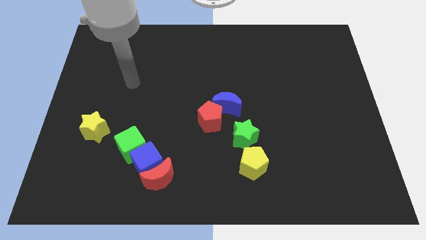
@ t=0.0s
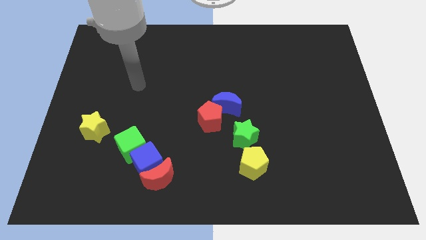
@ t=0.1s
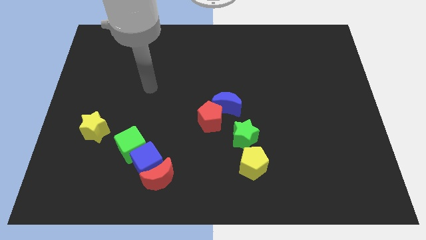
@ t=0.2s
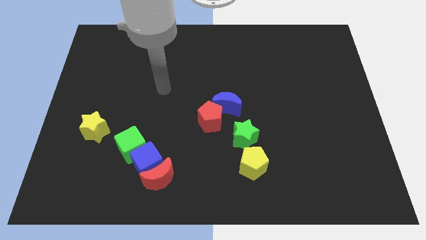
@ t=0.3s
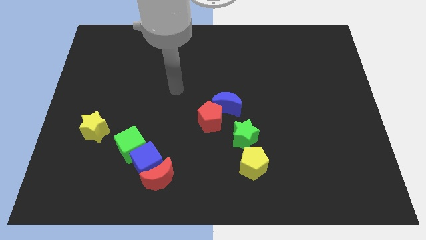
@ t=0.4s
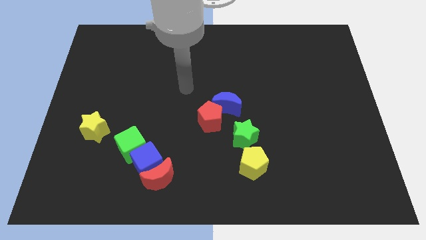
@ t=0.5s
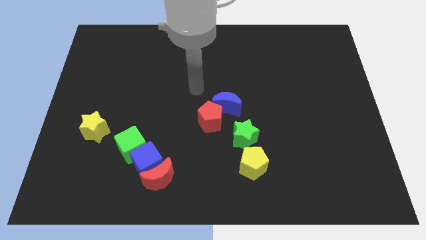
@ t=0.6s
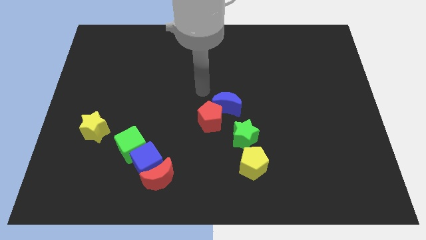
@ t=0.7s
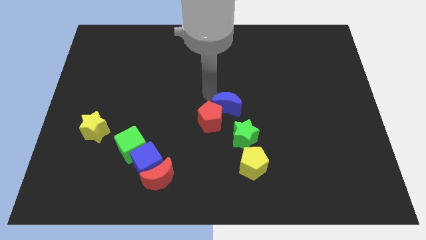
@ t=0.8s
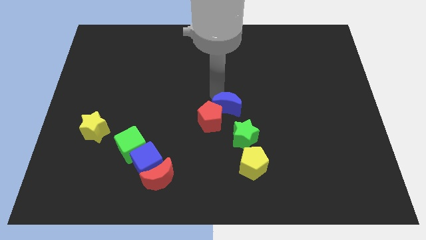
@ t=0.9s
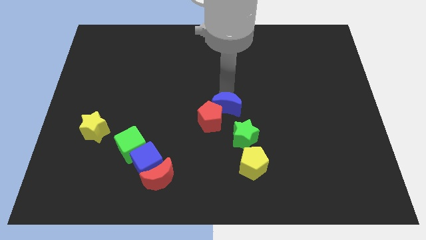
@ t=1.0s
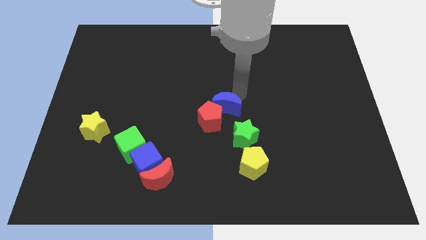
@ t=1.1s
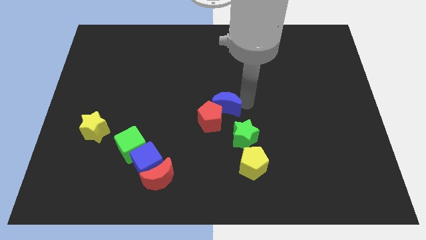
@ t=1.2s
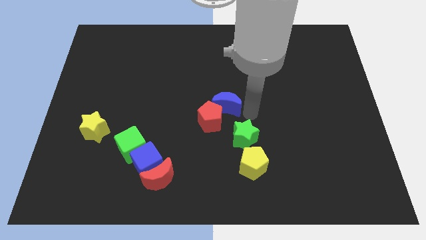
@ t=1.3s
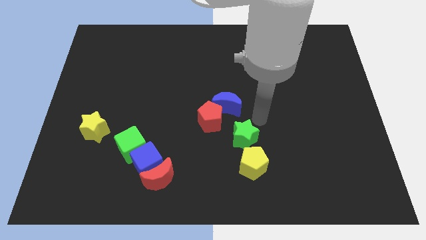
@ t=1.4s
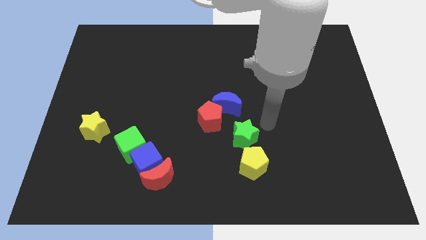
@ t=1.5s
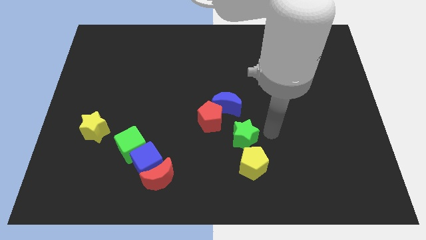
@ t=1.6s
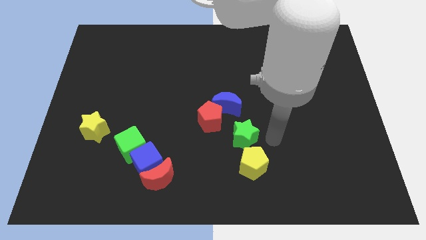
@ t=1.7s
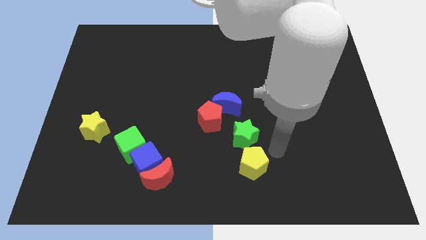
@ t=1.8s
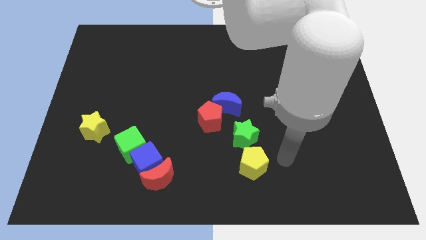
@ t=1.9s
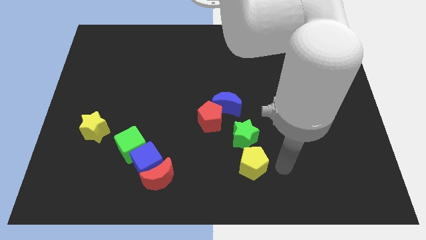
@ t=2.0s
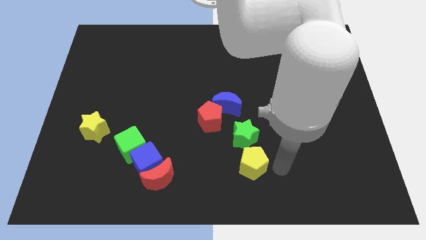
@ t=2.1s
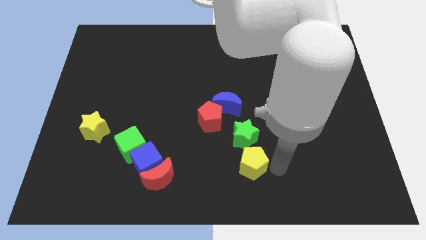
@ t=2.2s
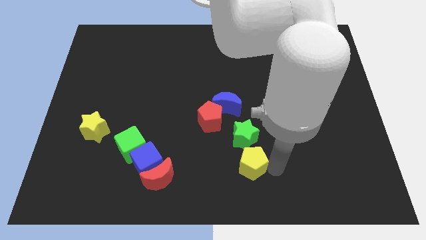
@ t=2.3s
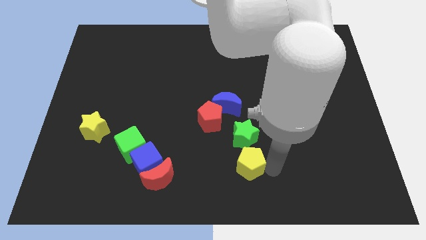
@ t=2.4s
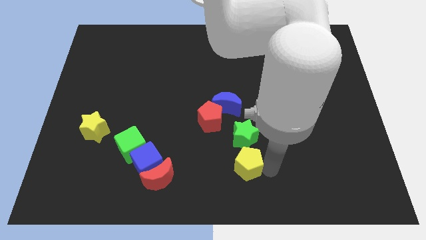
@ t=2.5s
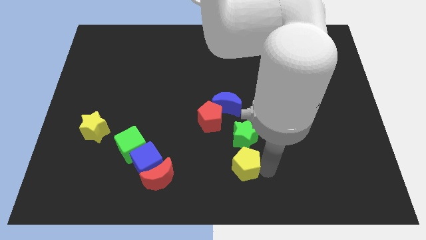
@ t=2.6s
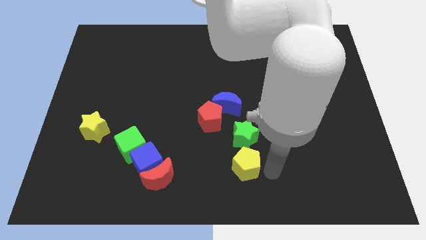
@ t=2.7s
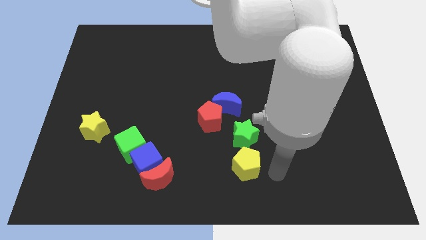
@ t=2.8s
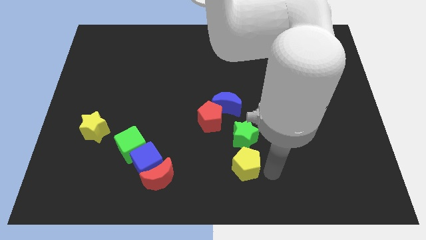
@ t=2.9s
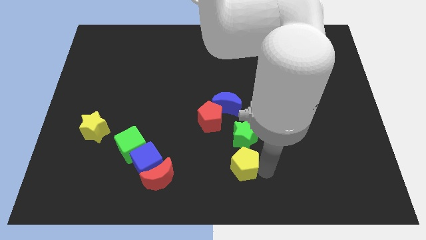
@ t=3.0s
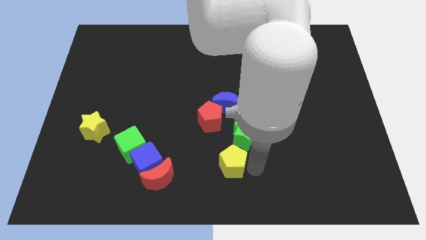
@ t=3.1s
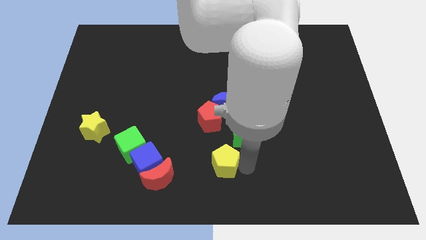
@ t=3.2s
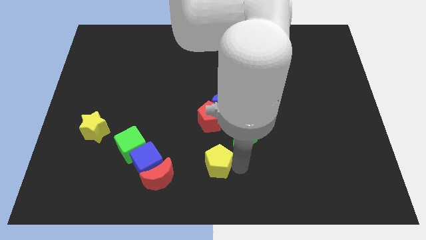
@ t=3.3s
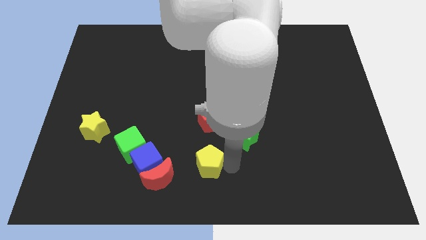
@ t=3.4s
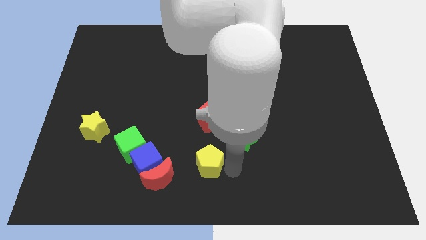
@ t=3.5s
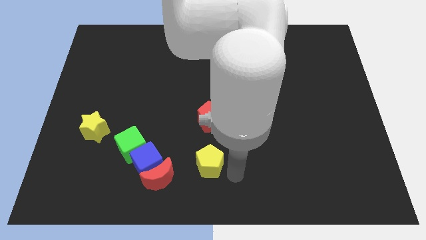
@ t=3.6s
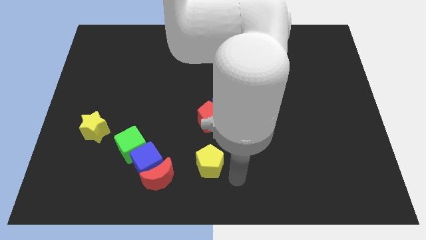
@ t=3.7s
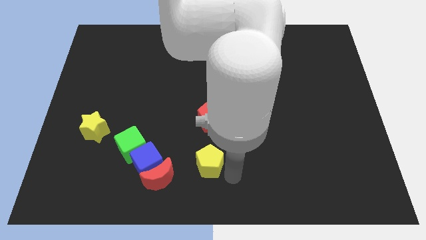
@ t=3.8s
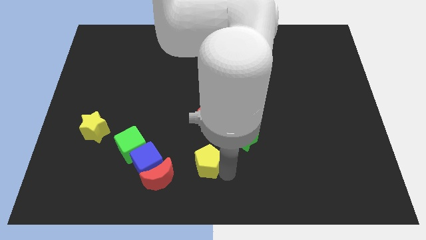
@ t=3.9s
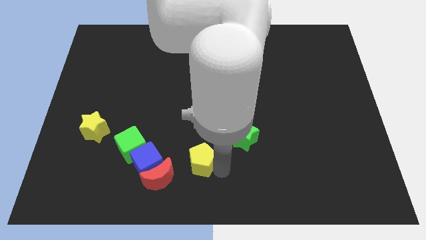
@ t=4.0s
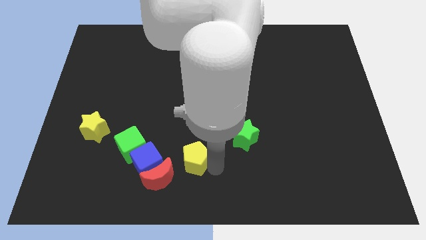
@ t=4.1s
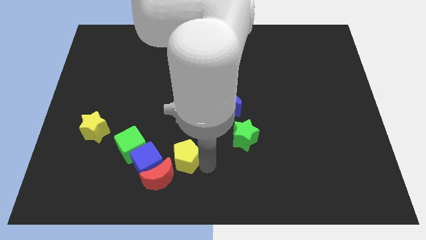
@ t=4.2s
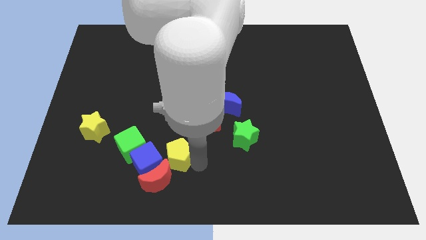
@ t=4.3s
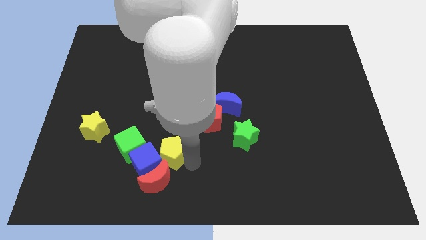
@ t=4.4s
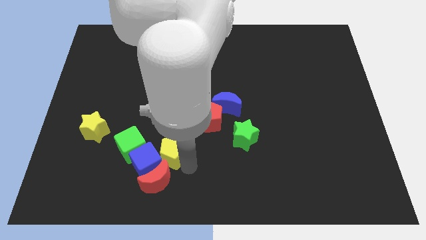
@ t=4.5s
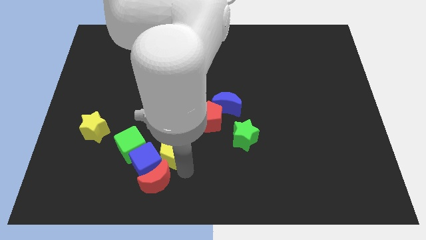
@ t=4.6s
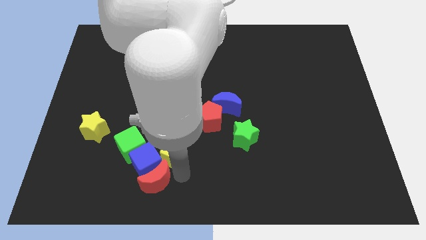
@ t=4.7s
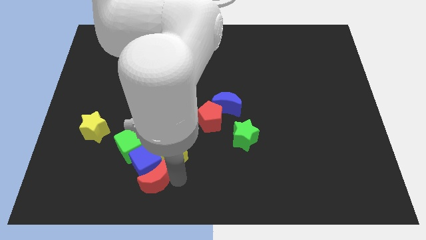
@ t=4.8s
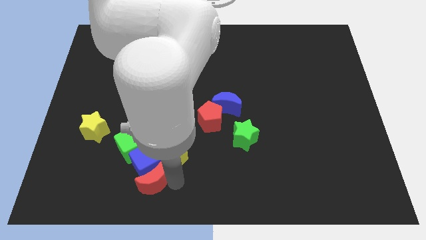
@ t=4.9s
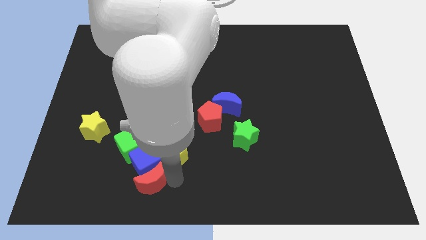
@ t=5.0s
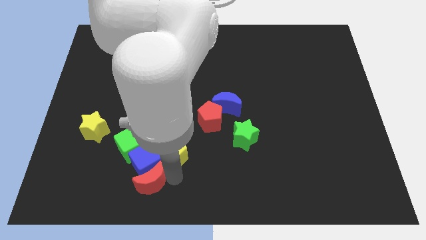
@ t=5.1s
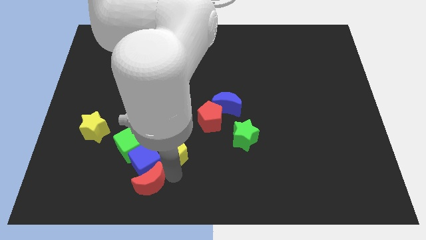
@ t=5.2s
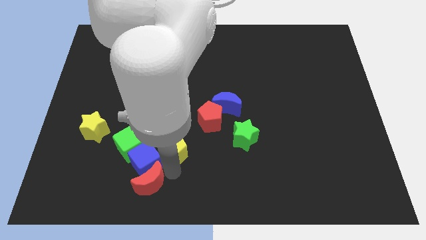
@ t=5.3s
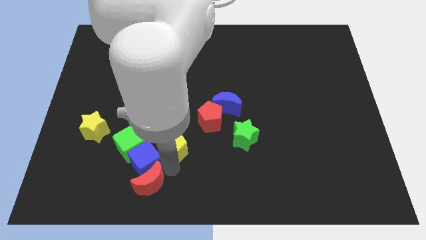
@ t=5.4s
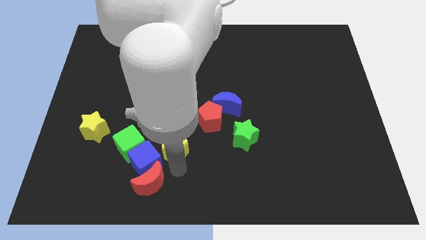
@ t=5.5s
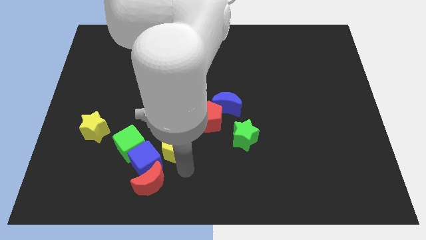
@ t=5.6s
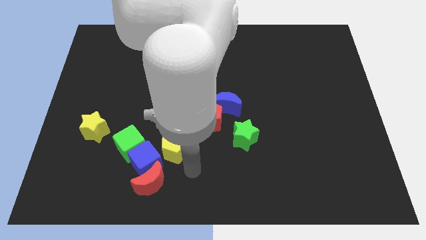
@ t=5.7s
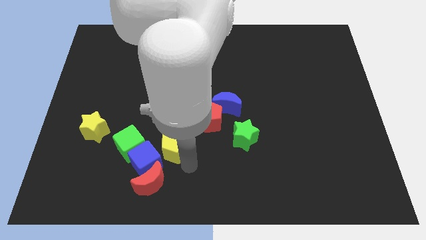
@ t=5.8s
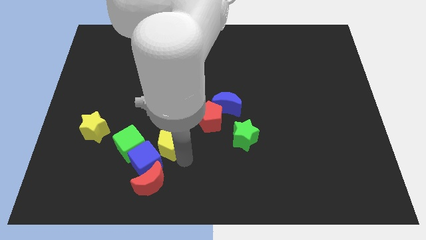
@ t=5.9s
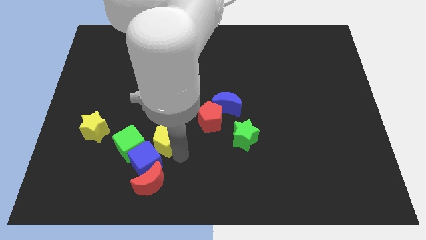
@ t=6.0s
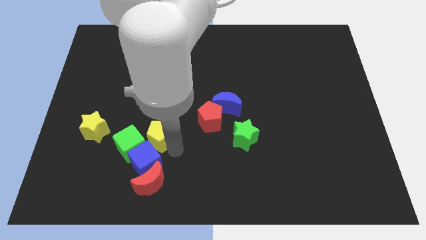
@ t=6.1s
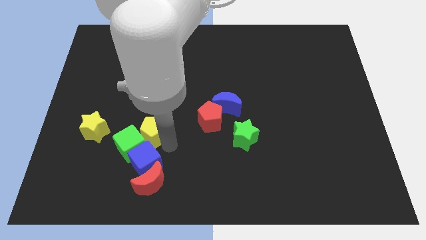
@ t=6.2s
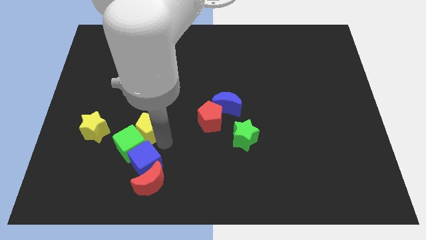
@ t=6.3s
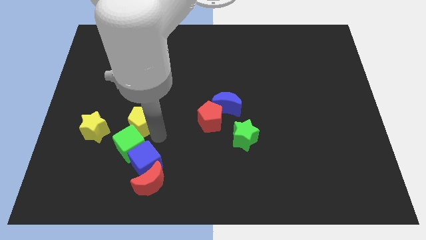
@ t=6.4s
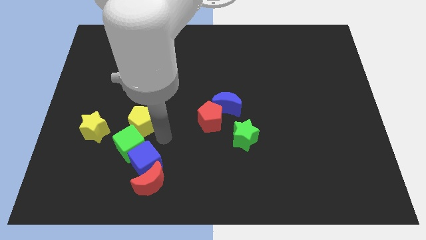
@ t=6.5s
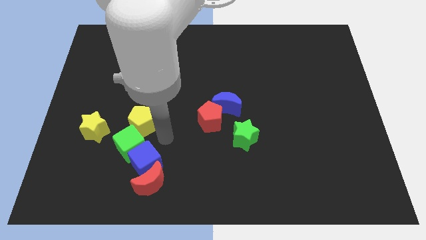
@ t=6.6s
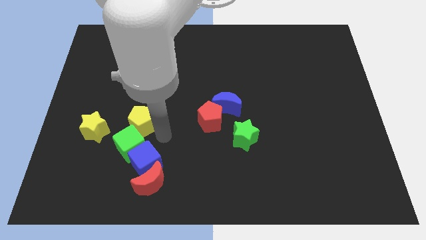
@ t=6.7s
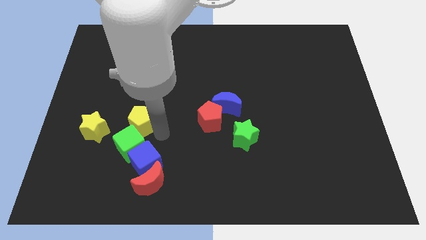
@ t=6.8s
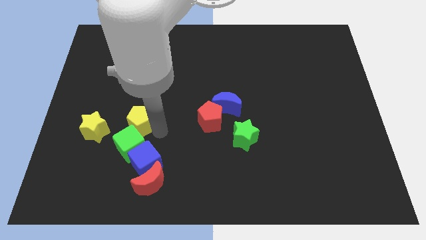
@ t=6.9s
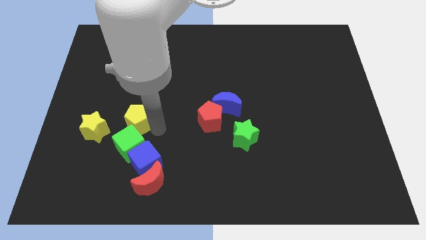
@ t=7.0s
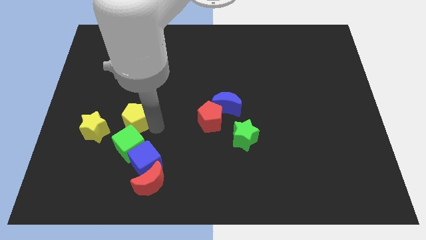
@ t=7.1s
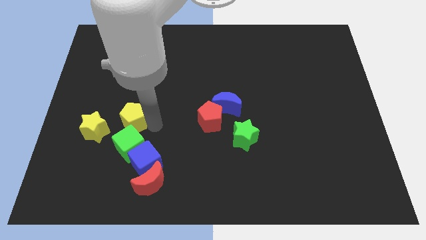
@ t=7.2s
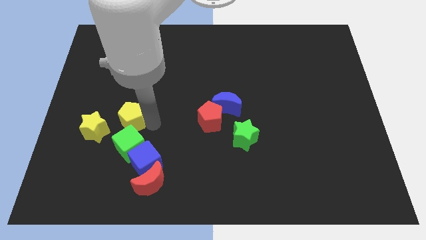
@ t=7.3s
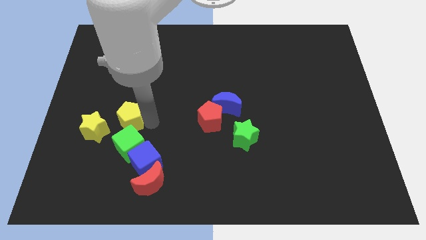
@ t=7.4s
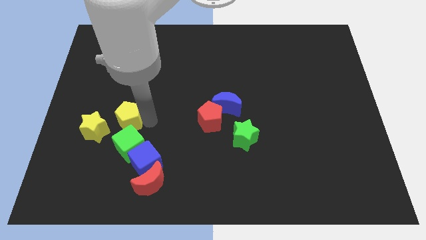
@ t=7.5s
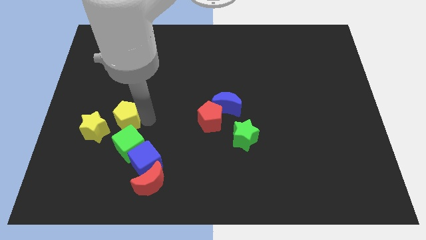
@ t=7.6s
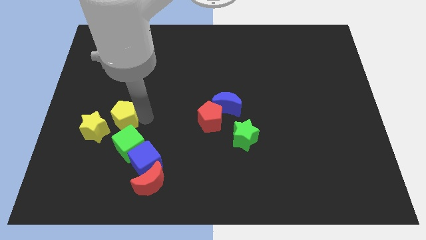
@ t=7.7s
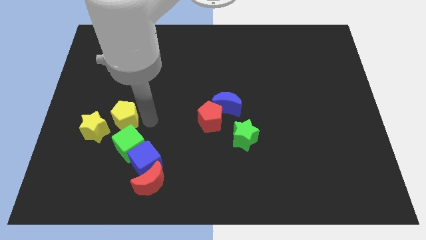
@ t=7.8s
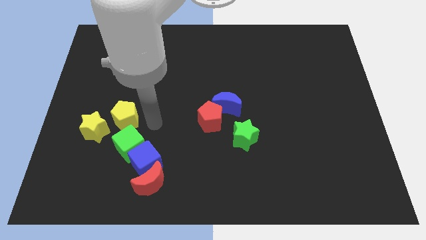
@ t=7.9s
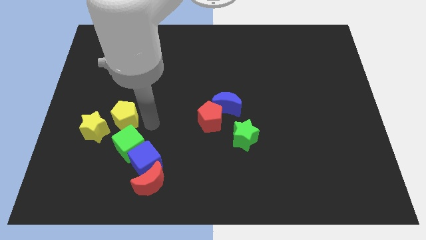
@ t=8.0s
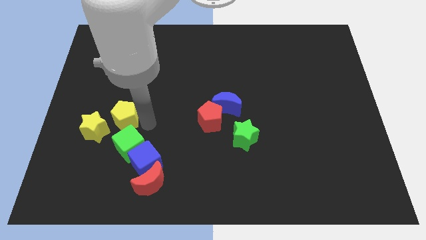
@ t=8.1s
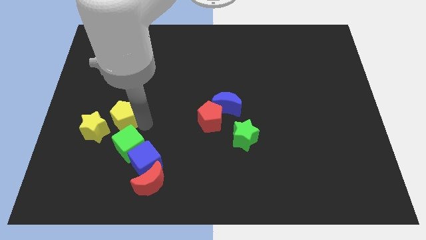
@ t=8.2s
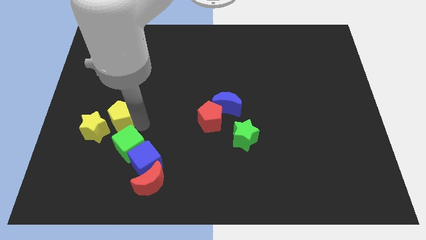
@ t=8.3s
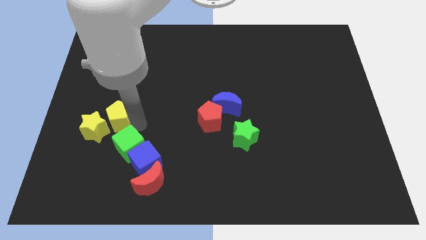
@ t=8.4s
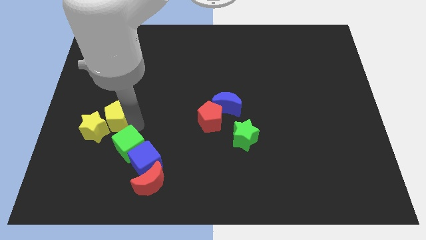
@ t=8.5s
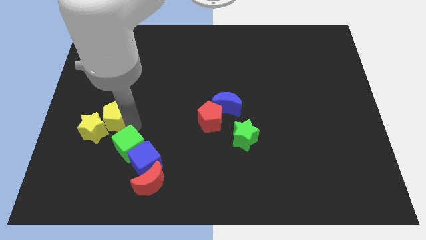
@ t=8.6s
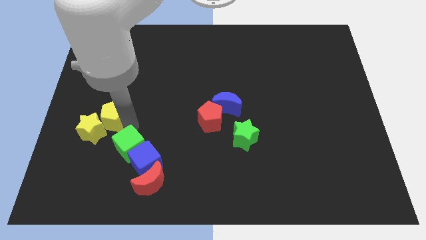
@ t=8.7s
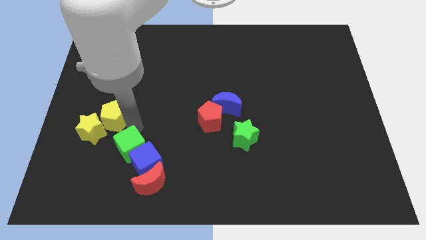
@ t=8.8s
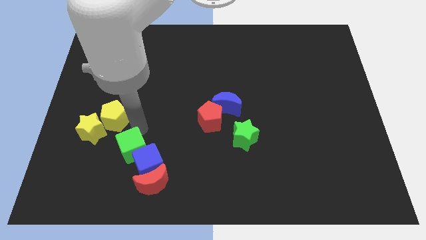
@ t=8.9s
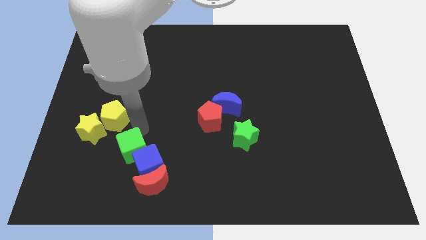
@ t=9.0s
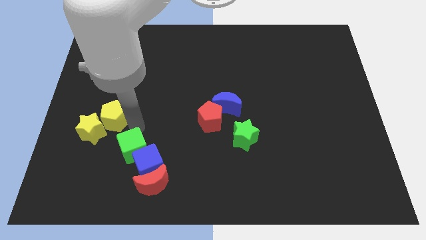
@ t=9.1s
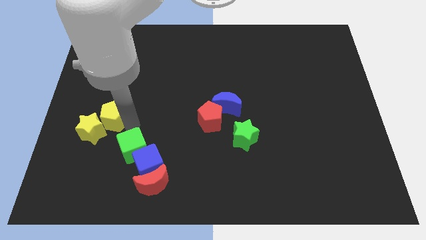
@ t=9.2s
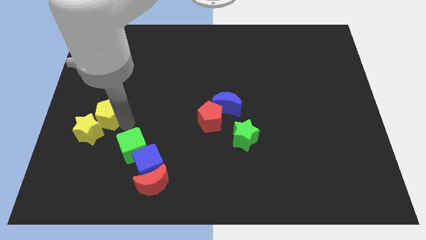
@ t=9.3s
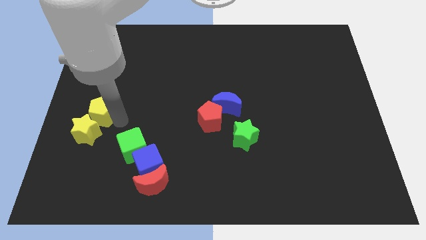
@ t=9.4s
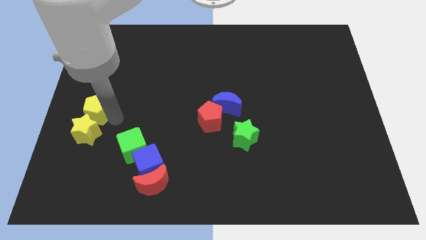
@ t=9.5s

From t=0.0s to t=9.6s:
push the yellow pentagon to the left side
